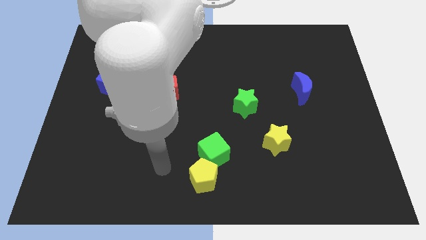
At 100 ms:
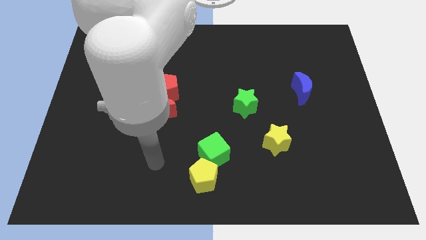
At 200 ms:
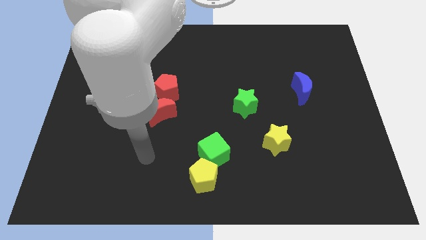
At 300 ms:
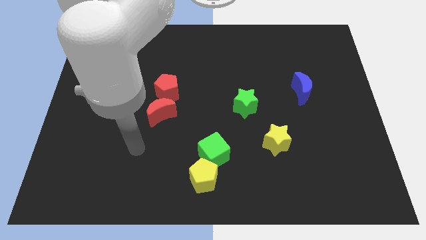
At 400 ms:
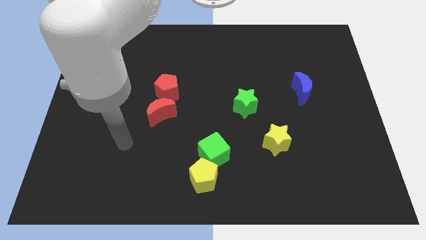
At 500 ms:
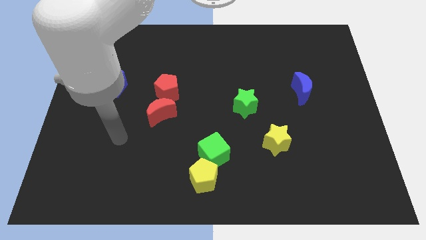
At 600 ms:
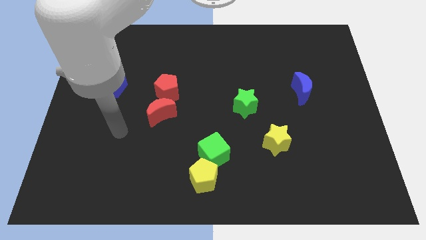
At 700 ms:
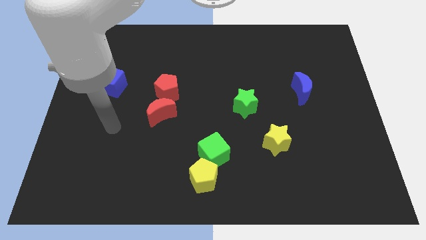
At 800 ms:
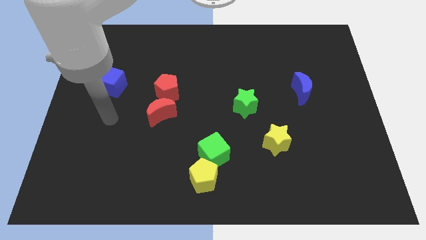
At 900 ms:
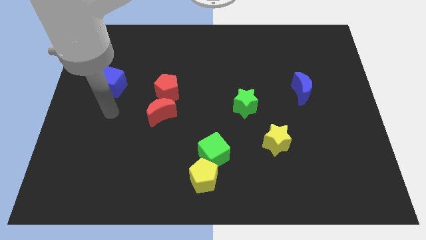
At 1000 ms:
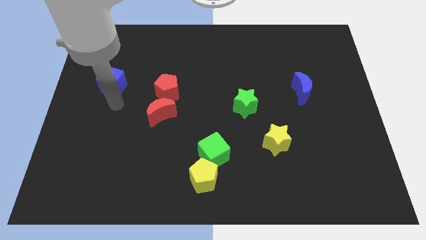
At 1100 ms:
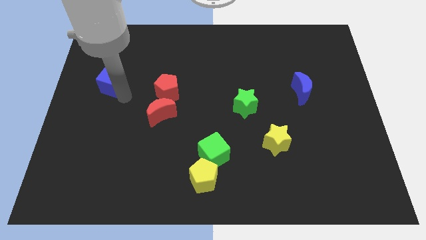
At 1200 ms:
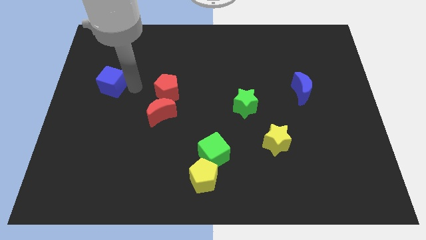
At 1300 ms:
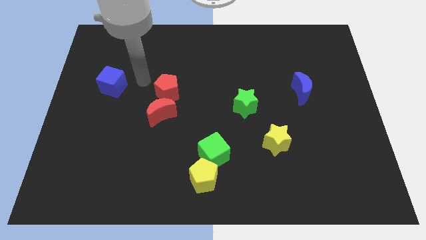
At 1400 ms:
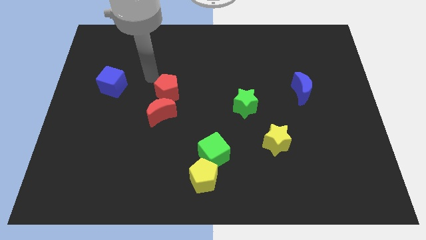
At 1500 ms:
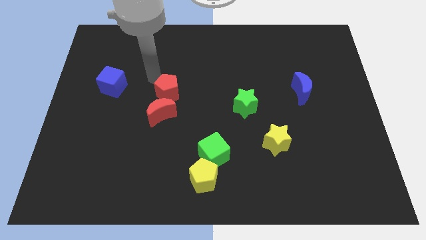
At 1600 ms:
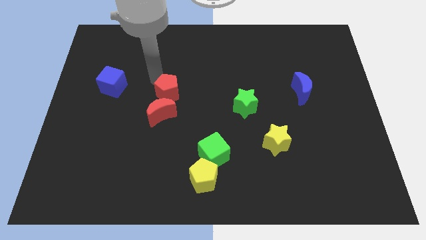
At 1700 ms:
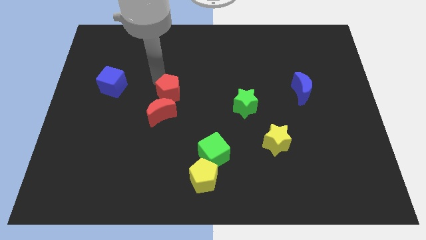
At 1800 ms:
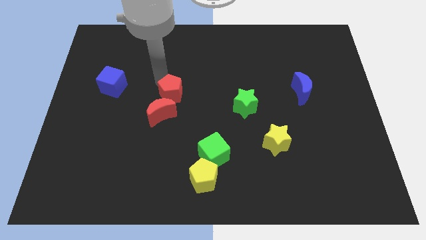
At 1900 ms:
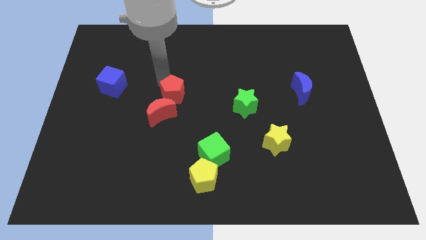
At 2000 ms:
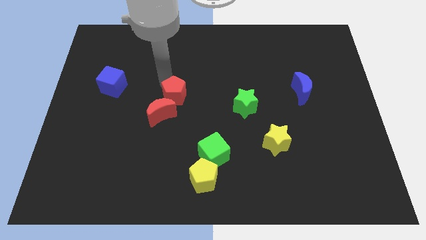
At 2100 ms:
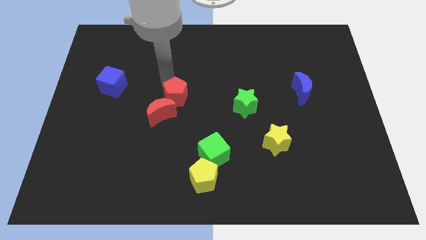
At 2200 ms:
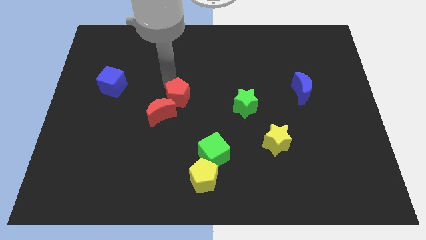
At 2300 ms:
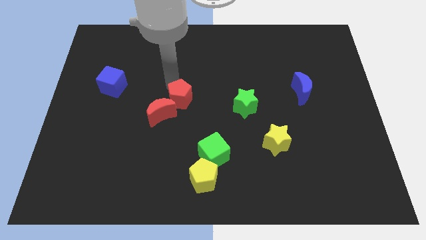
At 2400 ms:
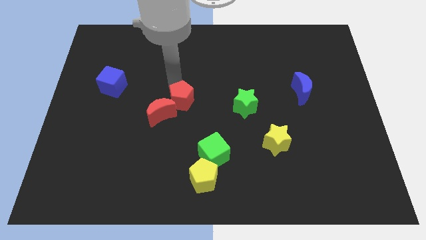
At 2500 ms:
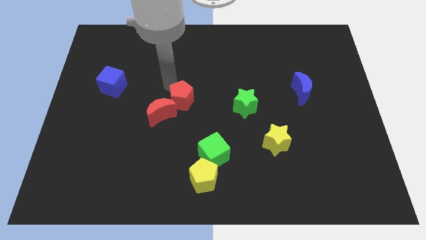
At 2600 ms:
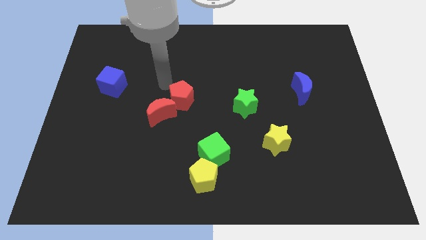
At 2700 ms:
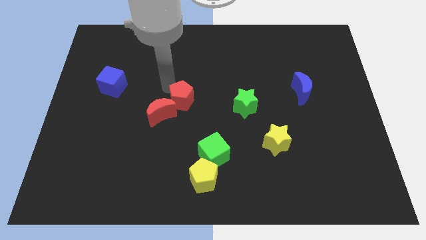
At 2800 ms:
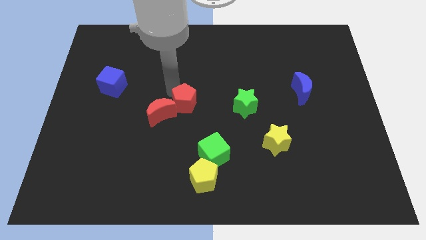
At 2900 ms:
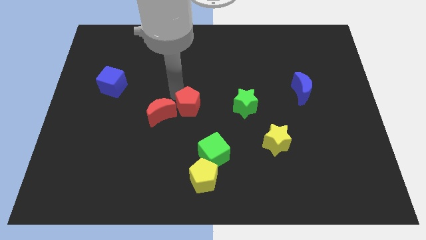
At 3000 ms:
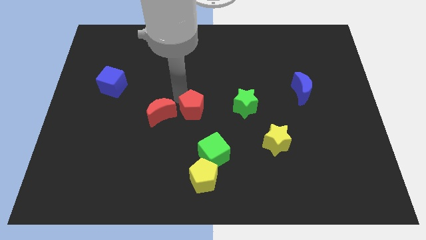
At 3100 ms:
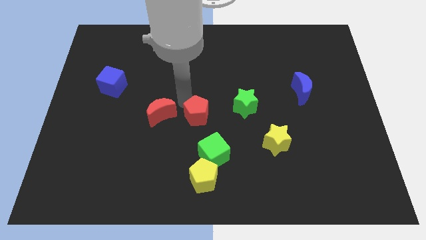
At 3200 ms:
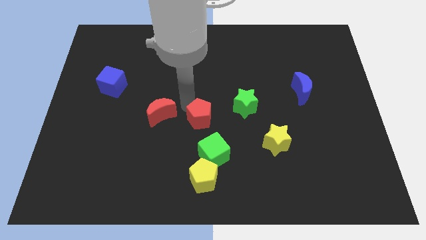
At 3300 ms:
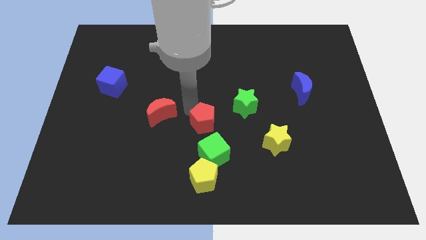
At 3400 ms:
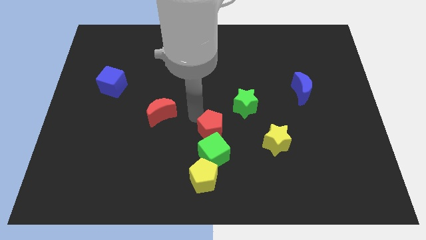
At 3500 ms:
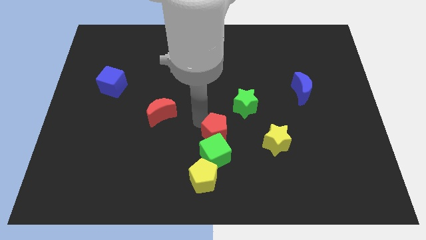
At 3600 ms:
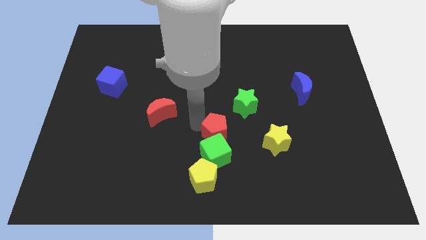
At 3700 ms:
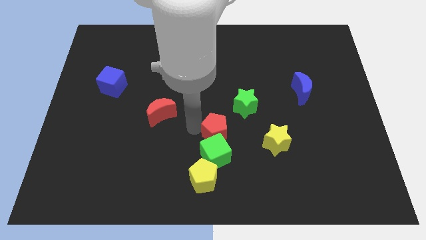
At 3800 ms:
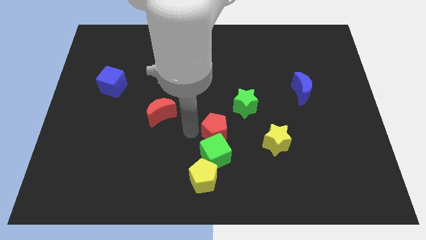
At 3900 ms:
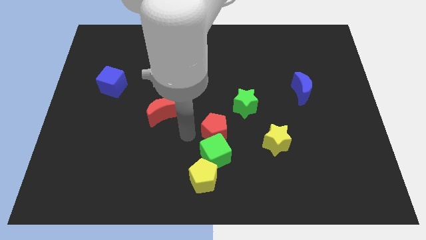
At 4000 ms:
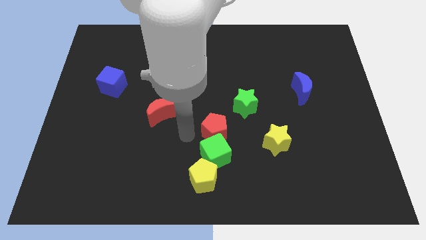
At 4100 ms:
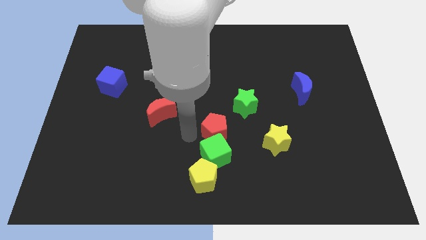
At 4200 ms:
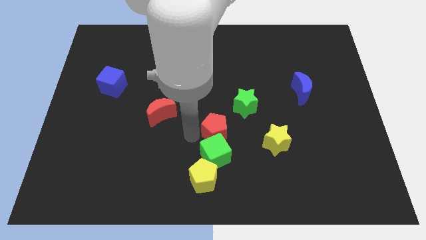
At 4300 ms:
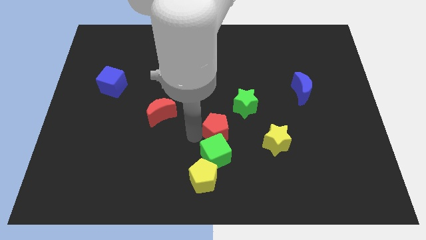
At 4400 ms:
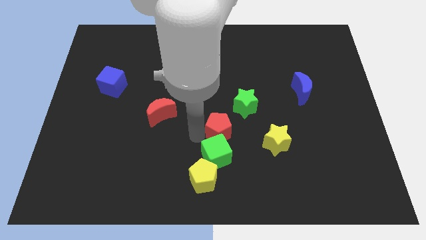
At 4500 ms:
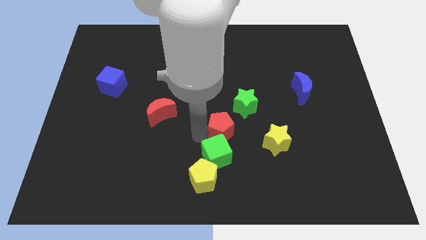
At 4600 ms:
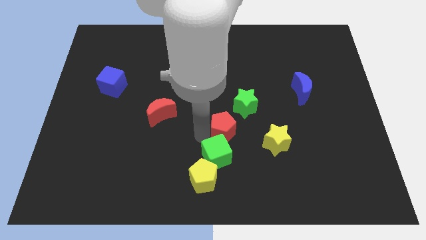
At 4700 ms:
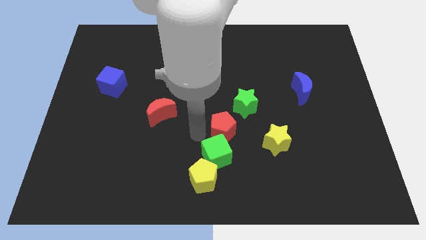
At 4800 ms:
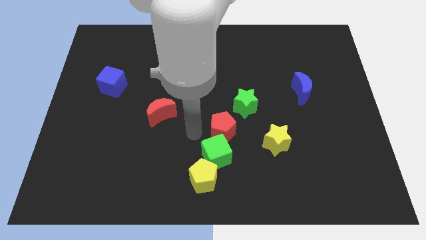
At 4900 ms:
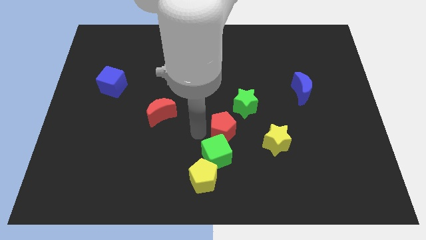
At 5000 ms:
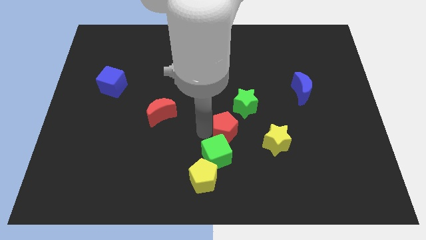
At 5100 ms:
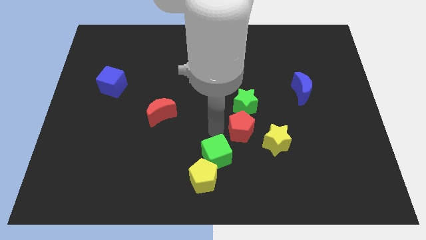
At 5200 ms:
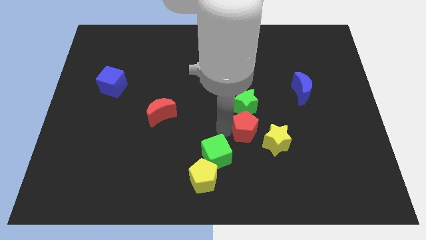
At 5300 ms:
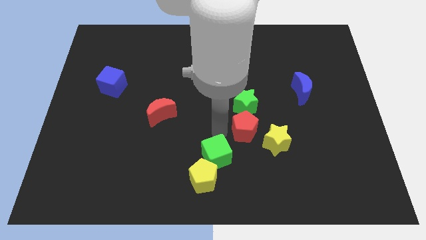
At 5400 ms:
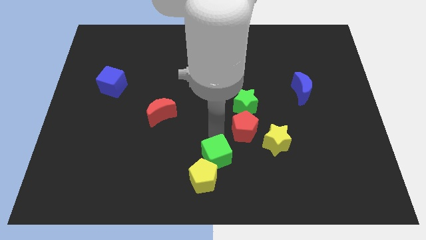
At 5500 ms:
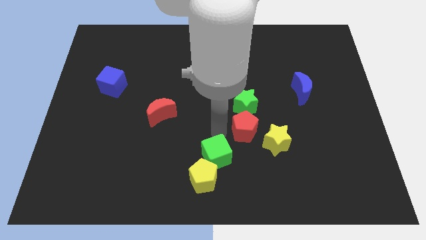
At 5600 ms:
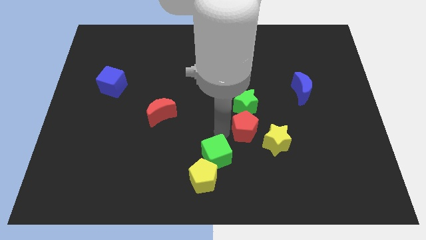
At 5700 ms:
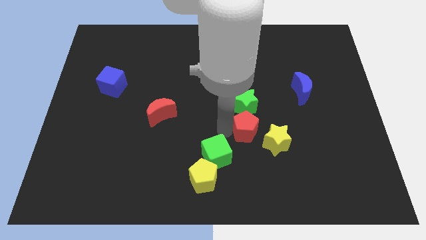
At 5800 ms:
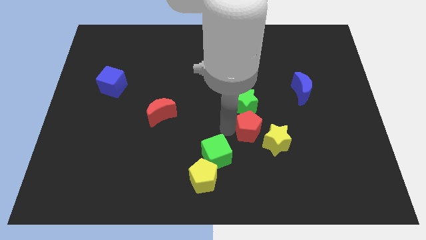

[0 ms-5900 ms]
slide the red pentagon diagonally down and to the right of the green star

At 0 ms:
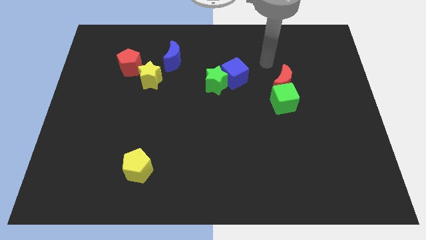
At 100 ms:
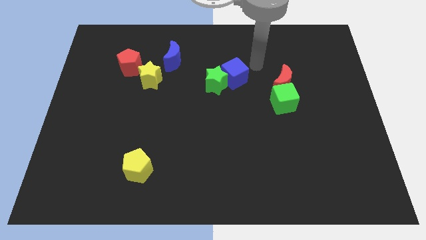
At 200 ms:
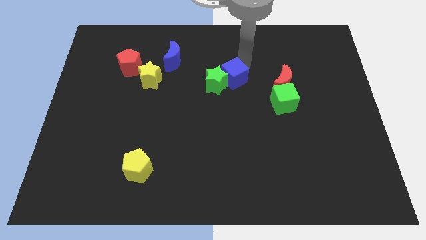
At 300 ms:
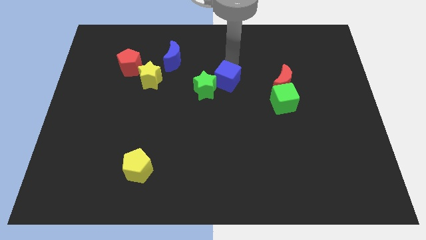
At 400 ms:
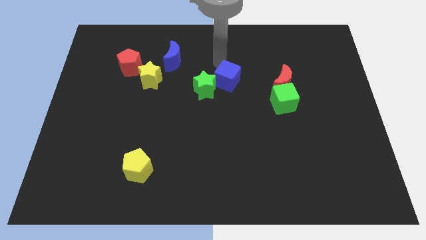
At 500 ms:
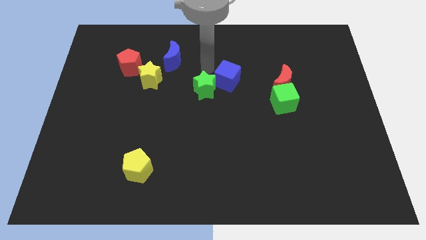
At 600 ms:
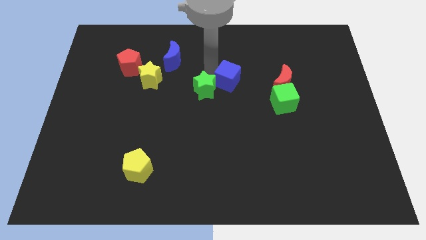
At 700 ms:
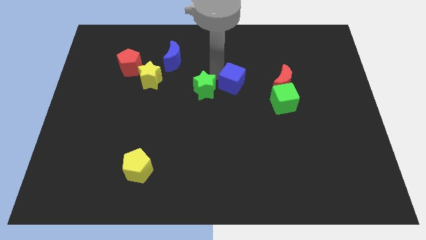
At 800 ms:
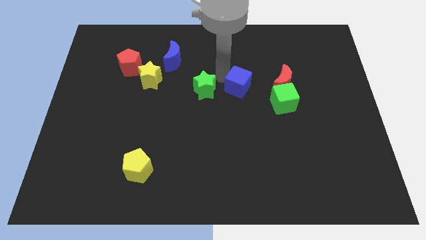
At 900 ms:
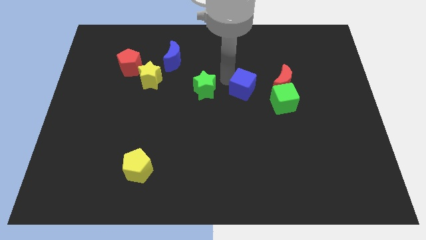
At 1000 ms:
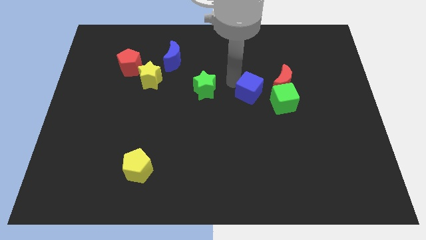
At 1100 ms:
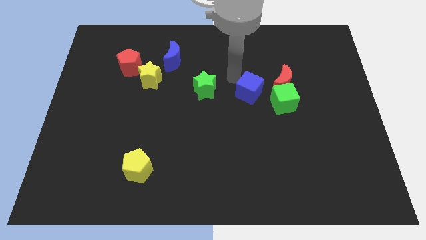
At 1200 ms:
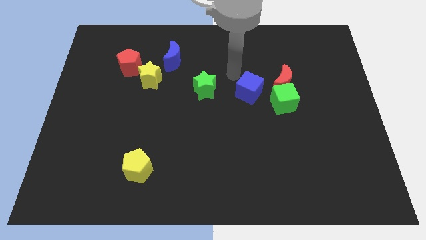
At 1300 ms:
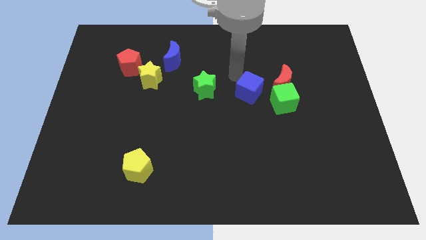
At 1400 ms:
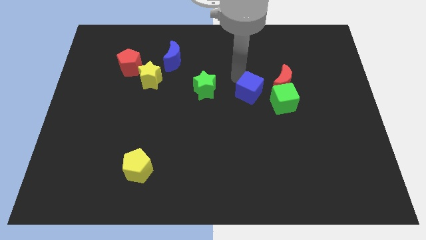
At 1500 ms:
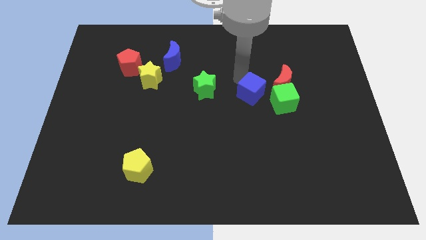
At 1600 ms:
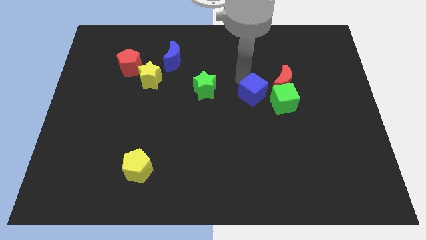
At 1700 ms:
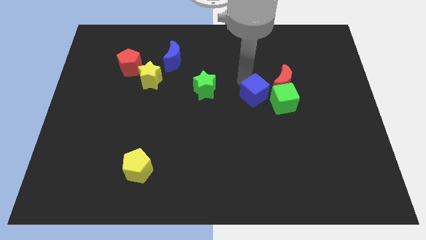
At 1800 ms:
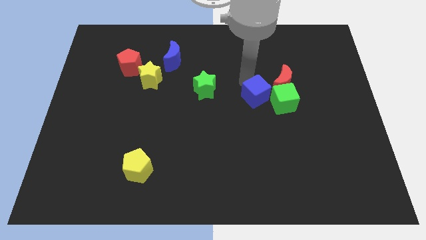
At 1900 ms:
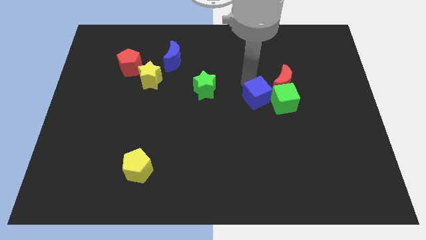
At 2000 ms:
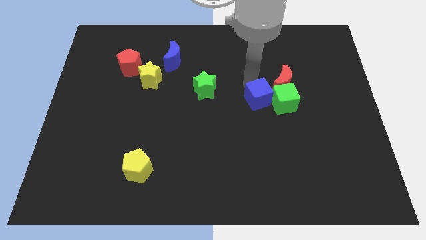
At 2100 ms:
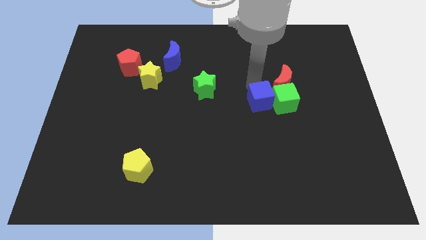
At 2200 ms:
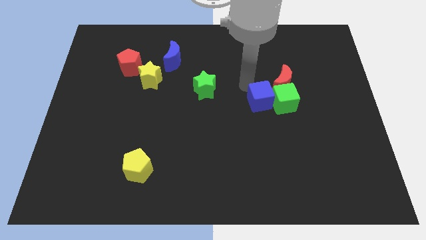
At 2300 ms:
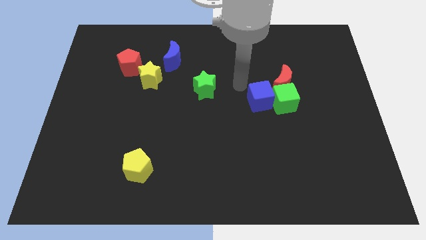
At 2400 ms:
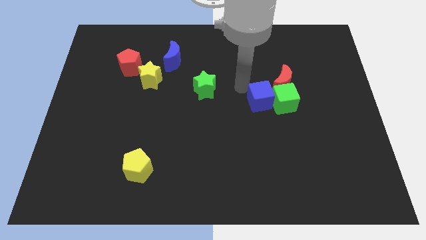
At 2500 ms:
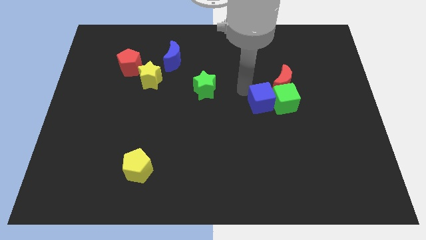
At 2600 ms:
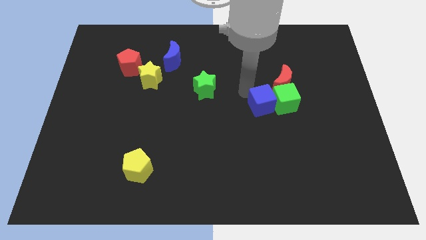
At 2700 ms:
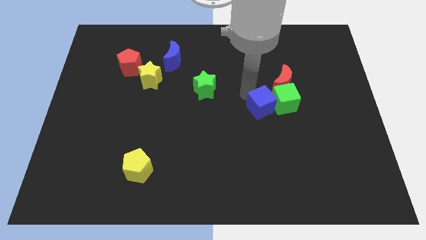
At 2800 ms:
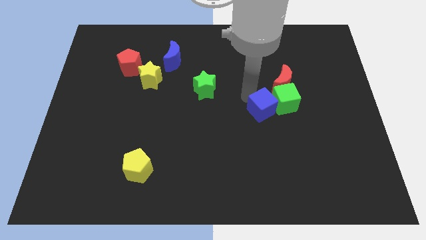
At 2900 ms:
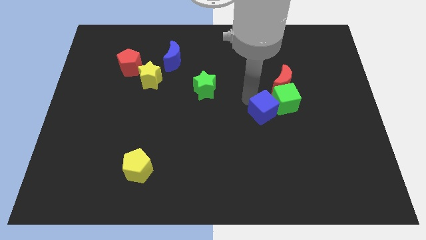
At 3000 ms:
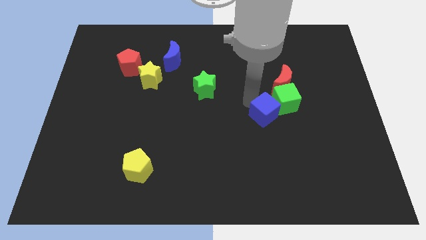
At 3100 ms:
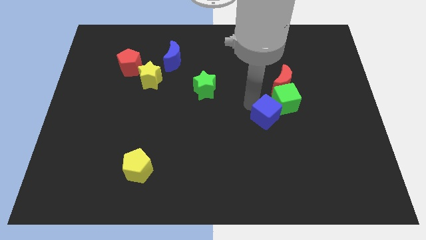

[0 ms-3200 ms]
push the blue cube to the bottom of the red moon
